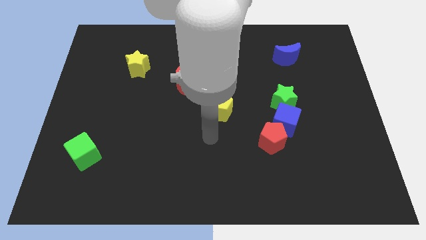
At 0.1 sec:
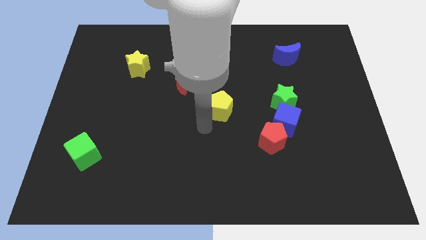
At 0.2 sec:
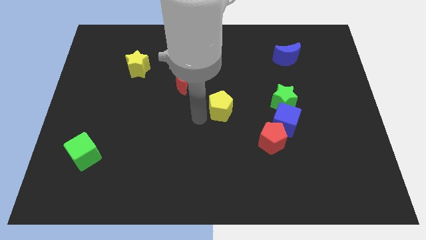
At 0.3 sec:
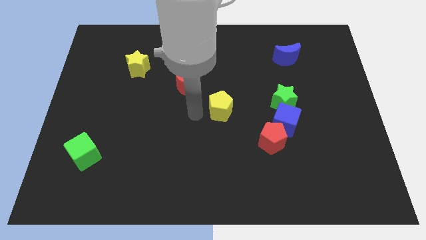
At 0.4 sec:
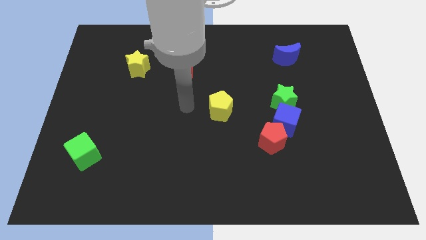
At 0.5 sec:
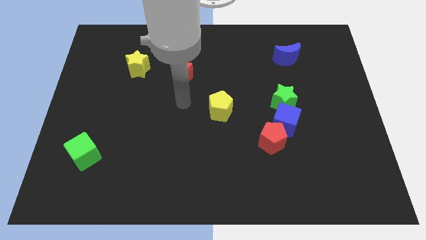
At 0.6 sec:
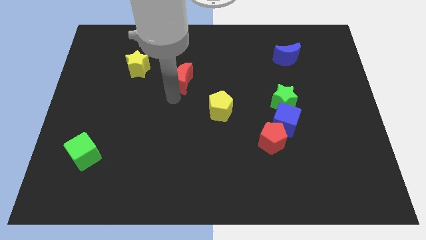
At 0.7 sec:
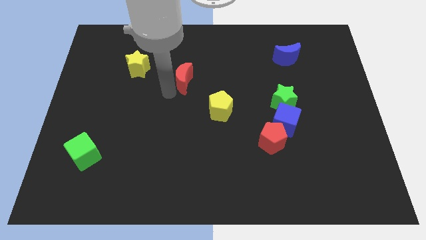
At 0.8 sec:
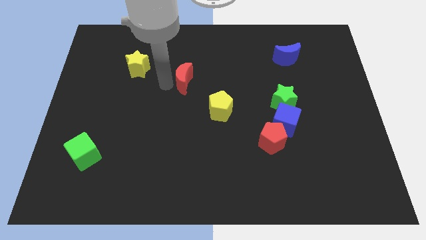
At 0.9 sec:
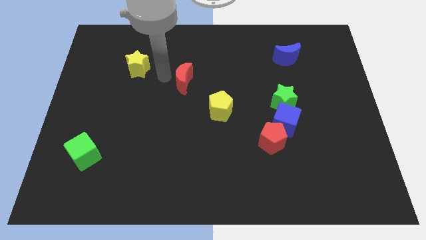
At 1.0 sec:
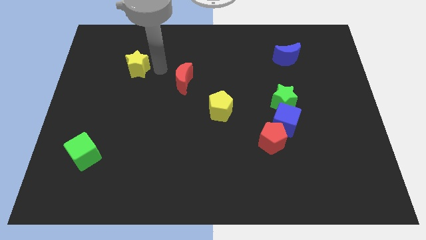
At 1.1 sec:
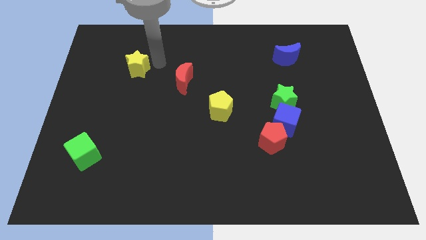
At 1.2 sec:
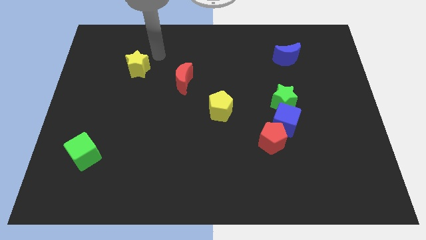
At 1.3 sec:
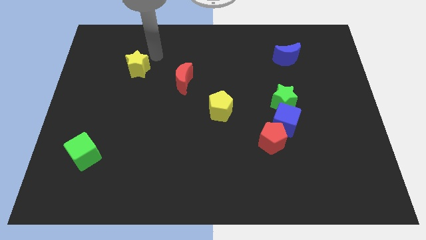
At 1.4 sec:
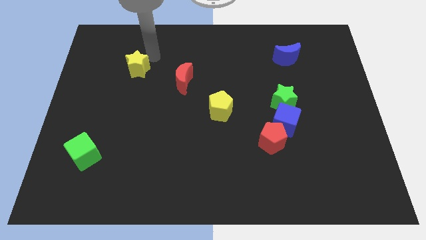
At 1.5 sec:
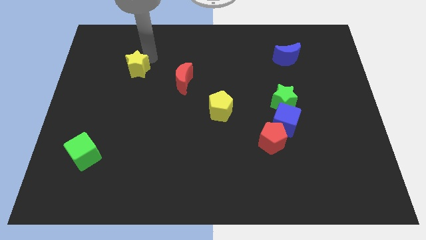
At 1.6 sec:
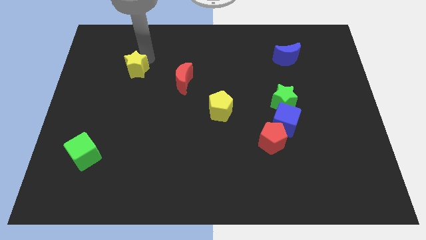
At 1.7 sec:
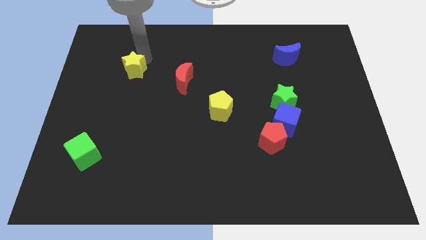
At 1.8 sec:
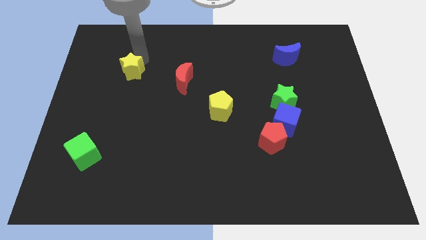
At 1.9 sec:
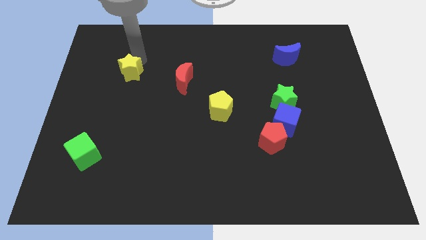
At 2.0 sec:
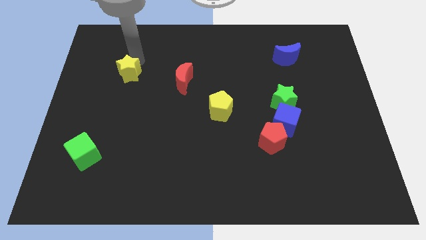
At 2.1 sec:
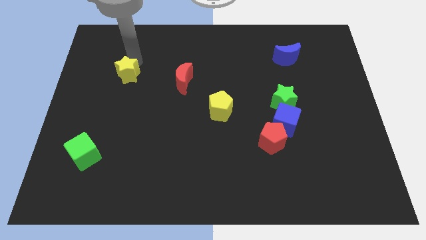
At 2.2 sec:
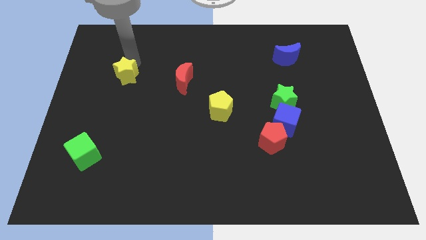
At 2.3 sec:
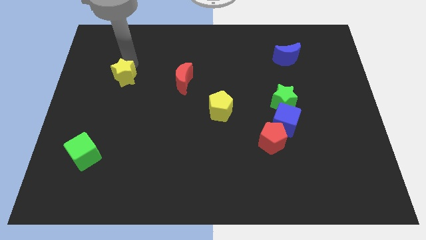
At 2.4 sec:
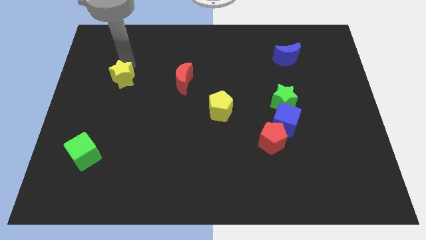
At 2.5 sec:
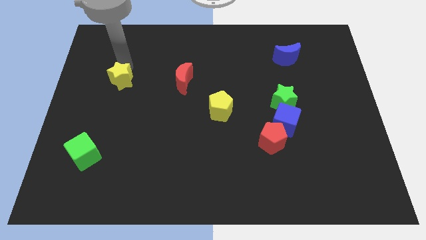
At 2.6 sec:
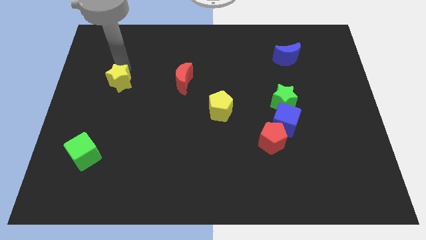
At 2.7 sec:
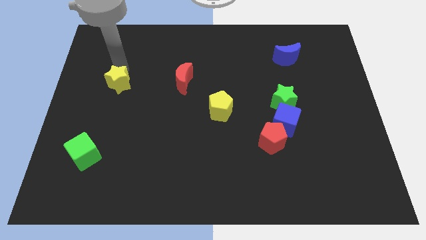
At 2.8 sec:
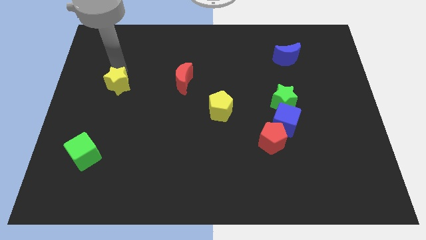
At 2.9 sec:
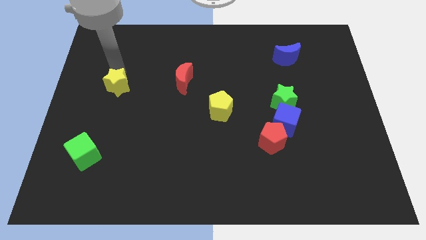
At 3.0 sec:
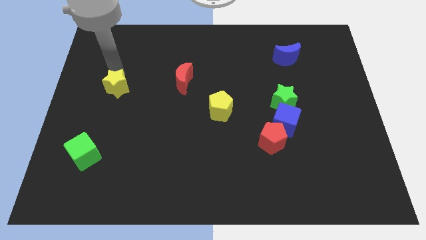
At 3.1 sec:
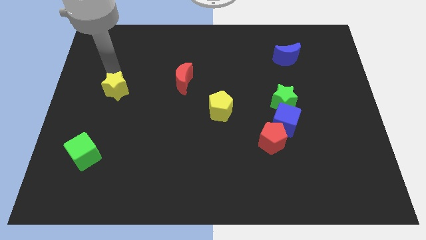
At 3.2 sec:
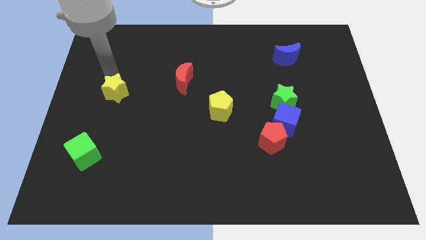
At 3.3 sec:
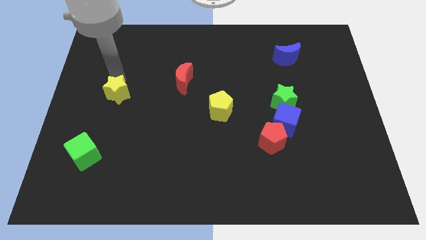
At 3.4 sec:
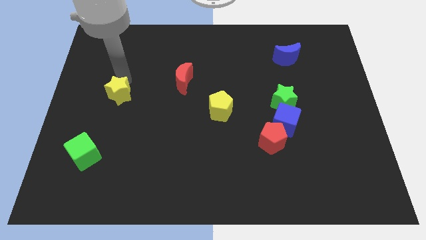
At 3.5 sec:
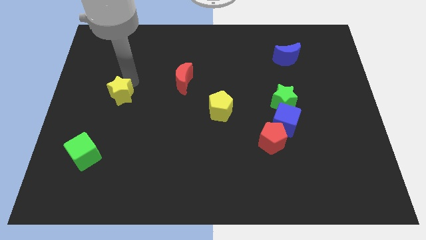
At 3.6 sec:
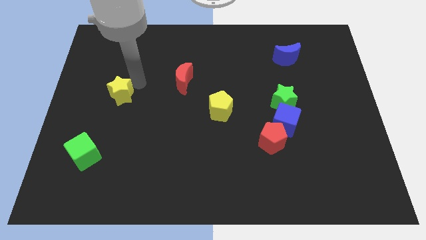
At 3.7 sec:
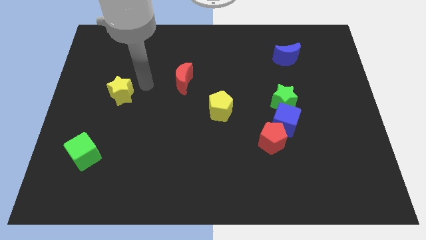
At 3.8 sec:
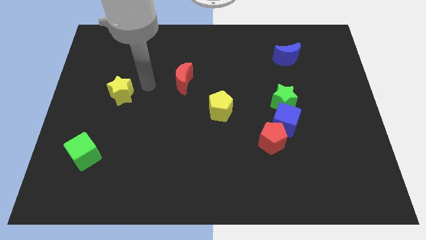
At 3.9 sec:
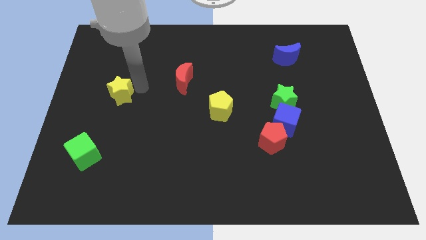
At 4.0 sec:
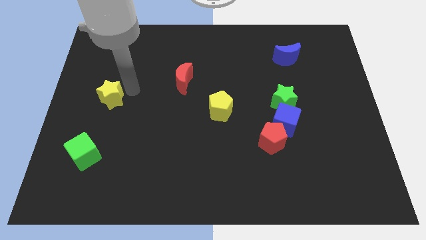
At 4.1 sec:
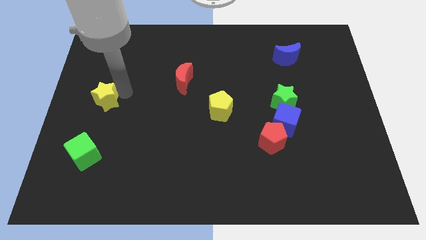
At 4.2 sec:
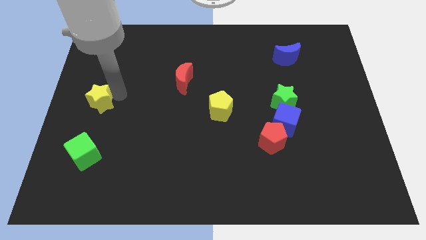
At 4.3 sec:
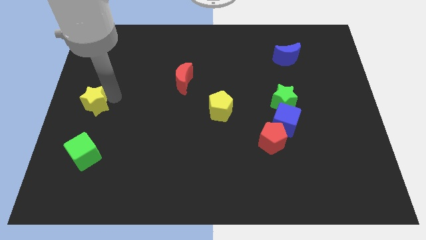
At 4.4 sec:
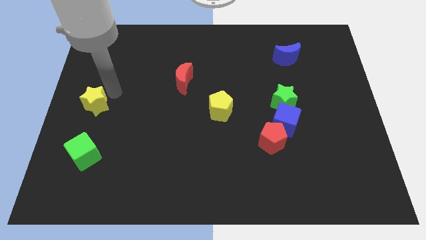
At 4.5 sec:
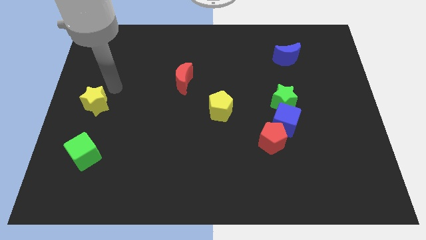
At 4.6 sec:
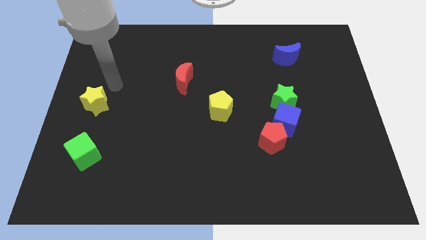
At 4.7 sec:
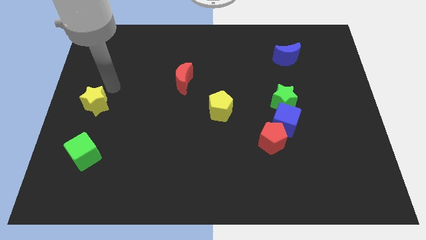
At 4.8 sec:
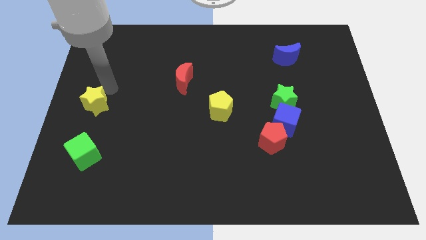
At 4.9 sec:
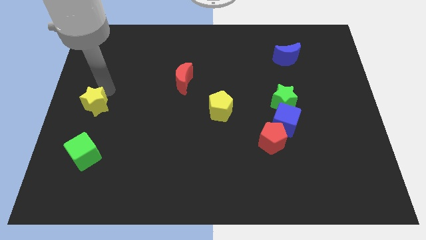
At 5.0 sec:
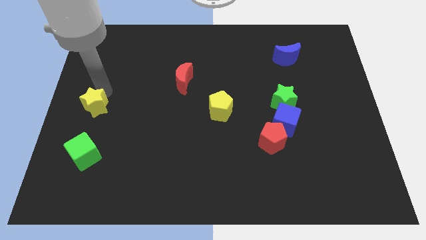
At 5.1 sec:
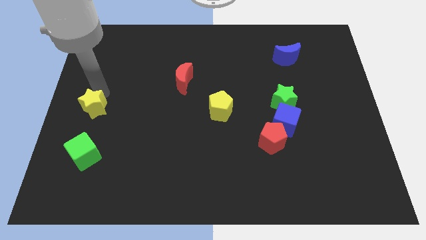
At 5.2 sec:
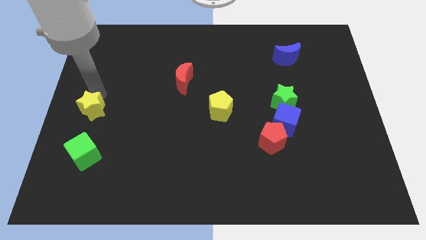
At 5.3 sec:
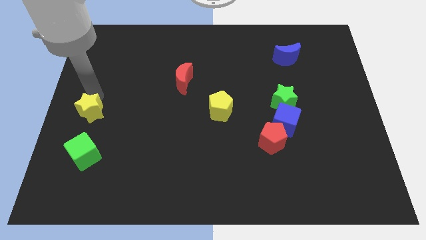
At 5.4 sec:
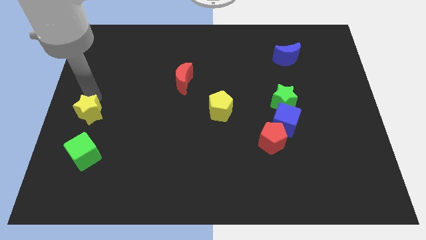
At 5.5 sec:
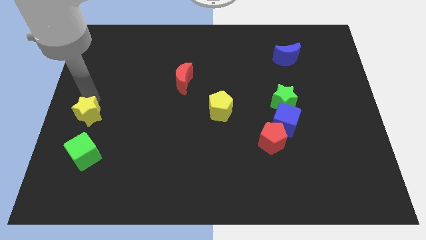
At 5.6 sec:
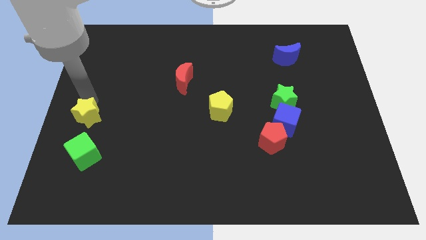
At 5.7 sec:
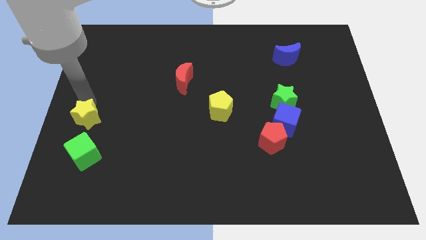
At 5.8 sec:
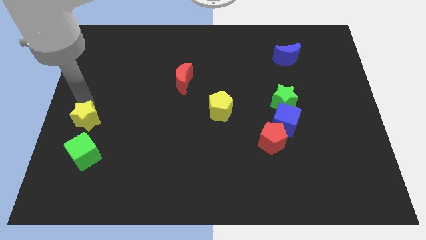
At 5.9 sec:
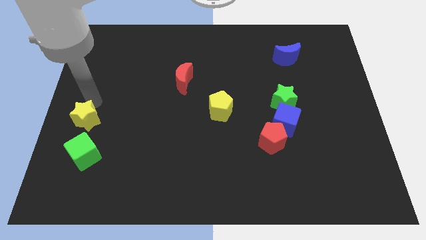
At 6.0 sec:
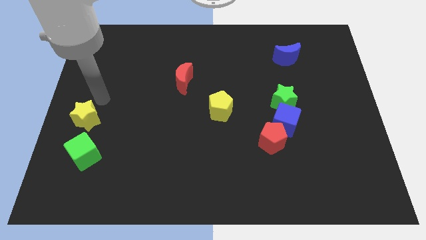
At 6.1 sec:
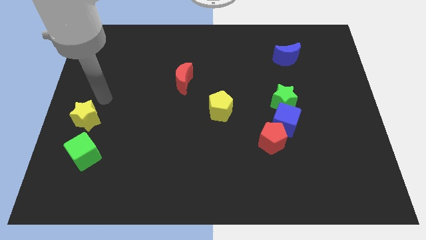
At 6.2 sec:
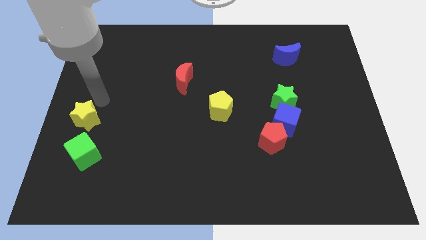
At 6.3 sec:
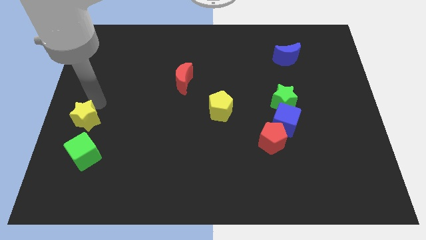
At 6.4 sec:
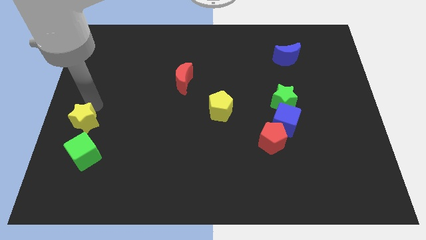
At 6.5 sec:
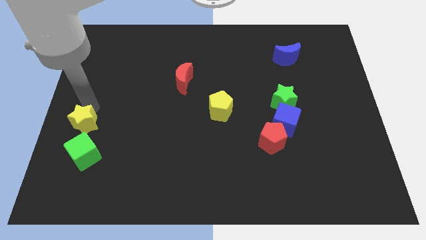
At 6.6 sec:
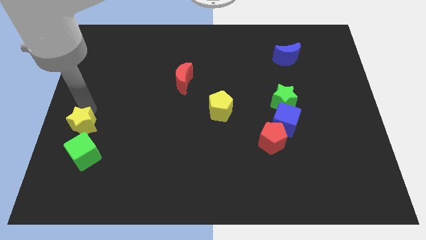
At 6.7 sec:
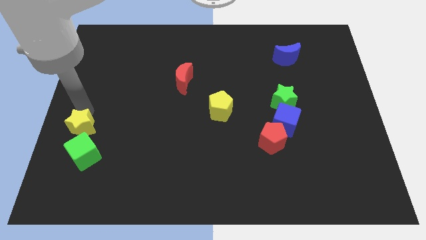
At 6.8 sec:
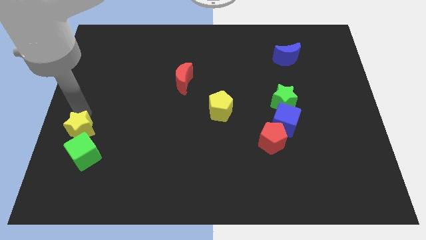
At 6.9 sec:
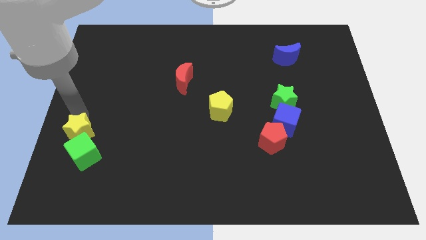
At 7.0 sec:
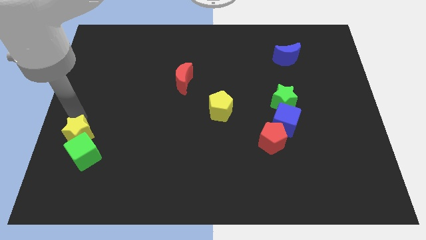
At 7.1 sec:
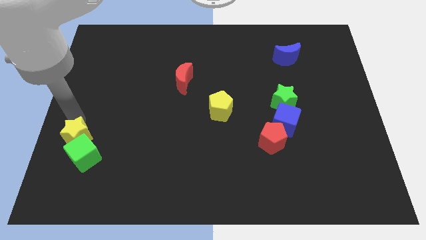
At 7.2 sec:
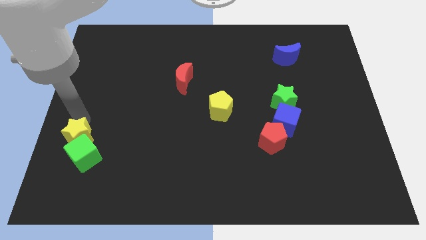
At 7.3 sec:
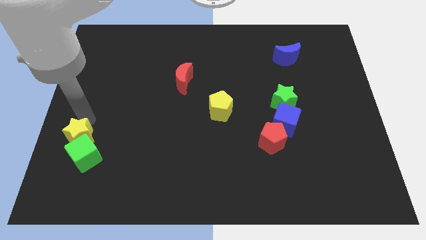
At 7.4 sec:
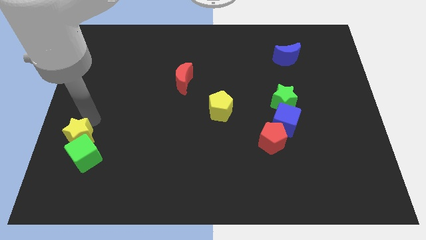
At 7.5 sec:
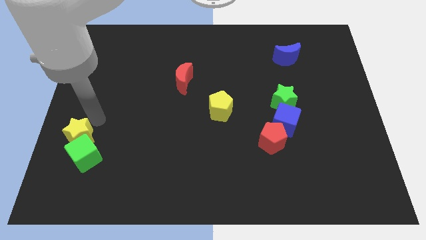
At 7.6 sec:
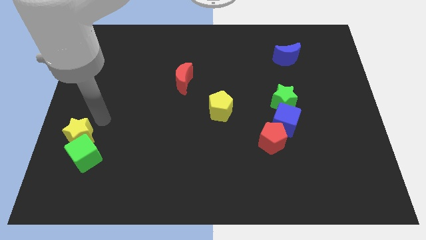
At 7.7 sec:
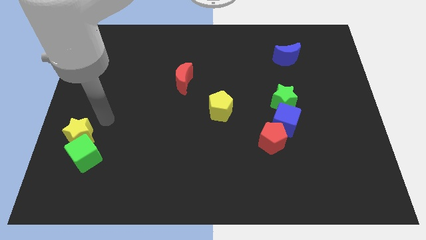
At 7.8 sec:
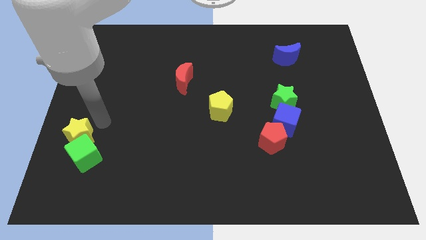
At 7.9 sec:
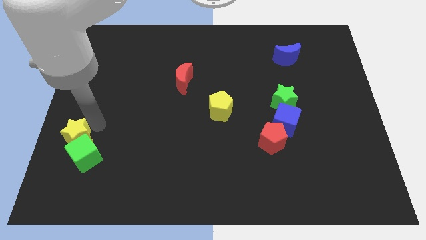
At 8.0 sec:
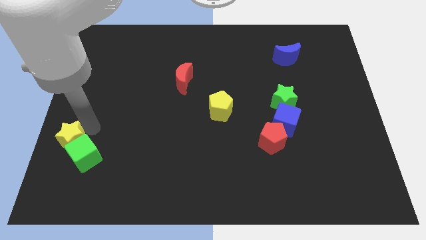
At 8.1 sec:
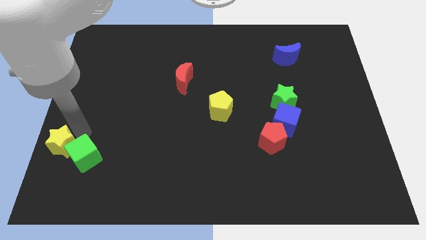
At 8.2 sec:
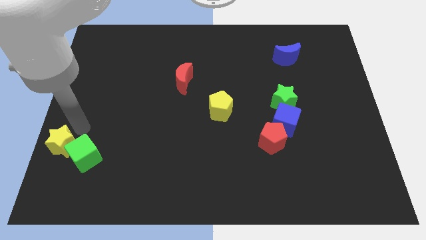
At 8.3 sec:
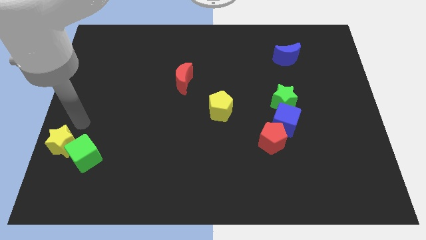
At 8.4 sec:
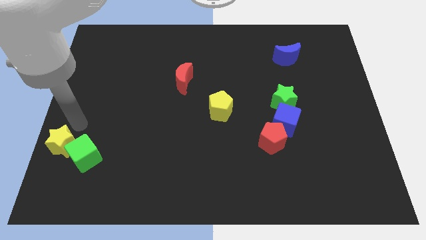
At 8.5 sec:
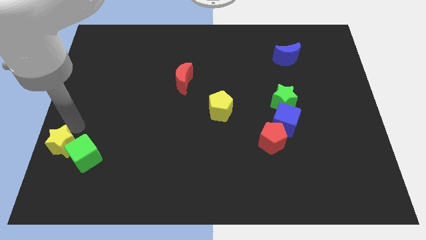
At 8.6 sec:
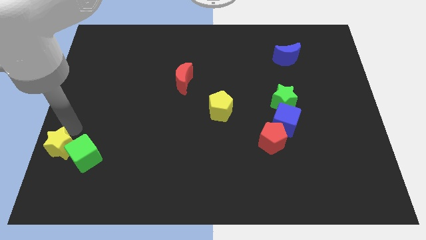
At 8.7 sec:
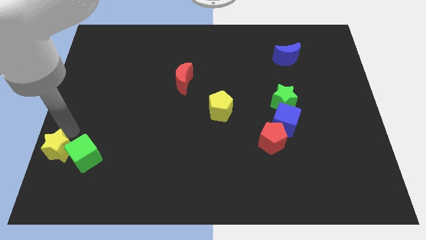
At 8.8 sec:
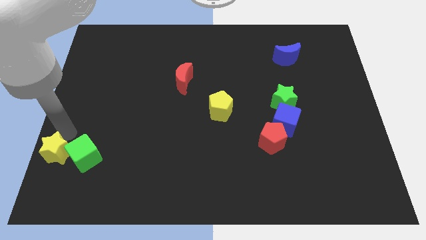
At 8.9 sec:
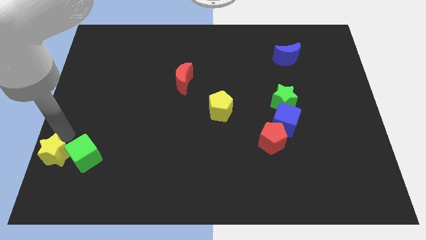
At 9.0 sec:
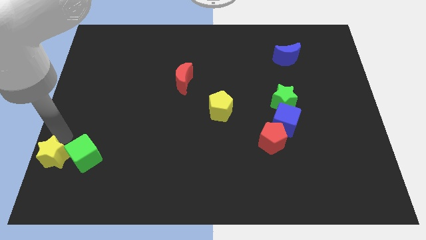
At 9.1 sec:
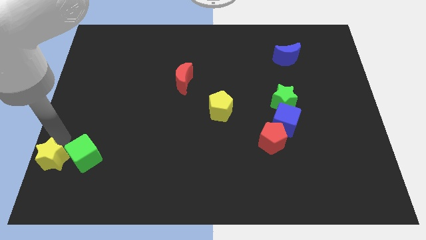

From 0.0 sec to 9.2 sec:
move the yellow star to the bottom left of the board
